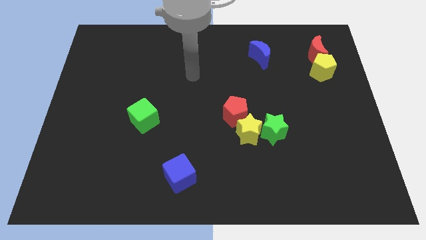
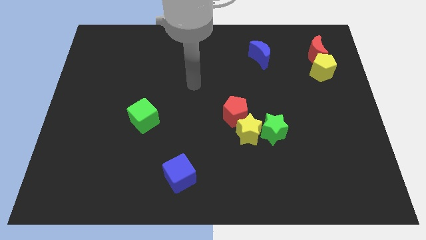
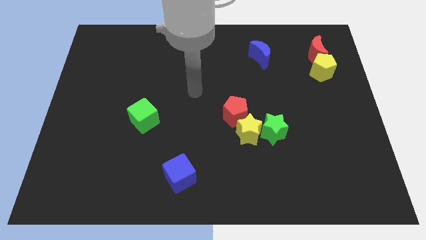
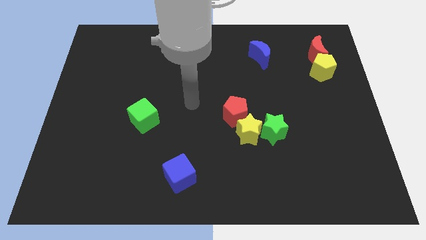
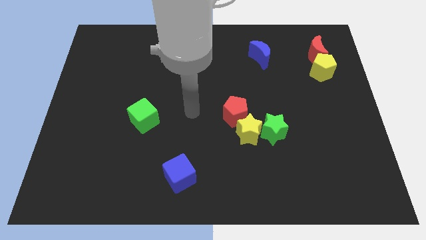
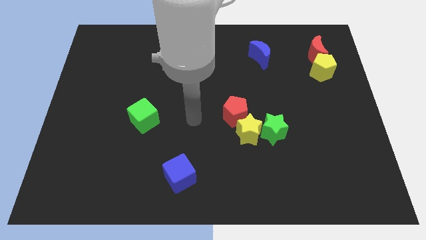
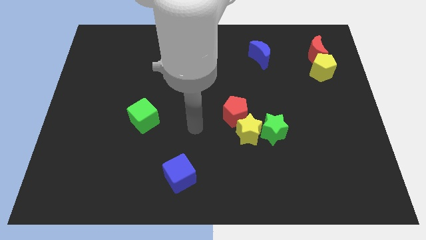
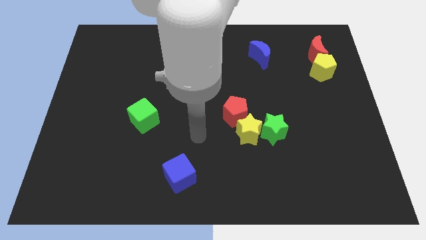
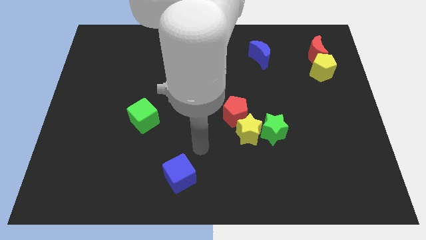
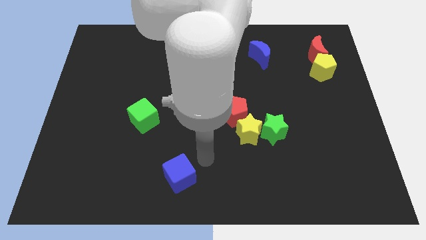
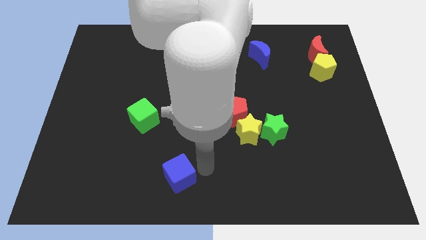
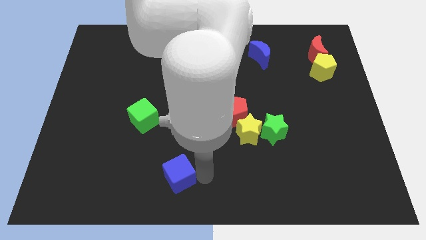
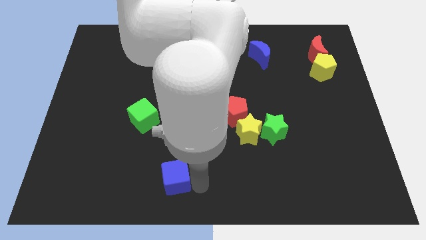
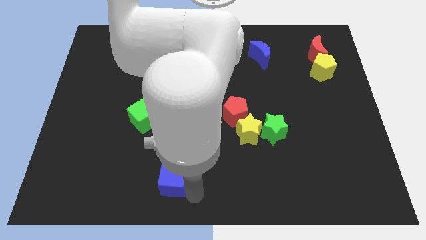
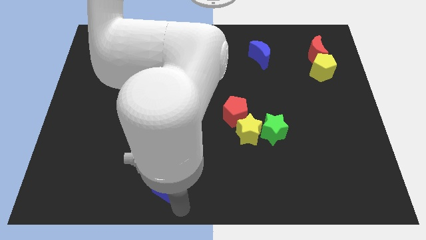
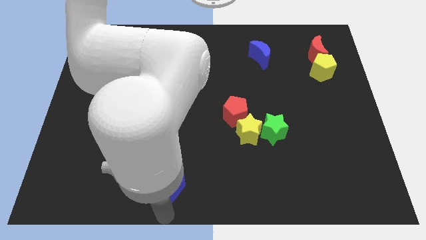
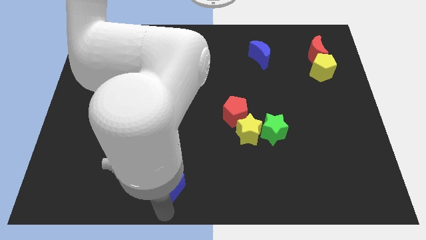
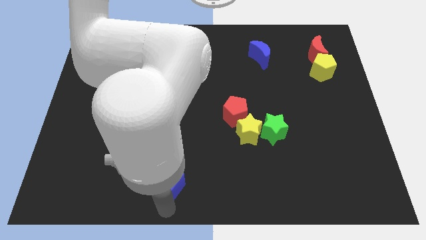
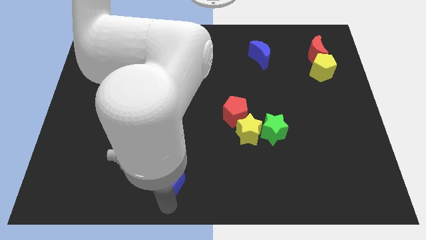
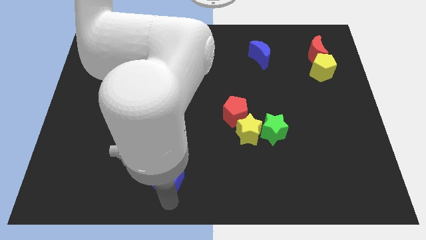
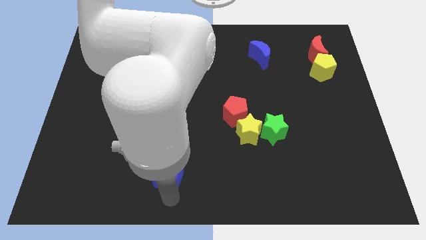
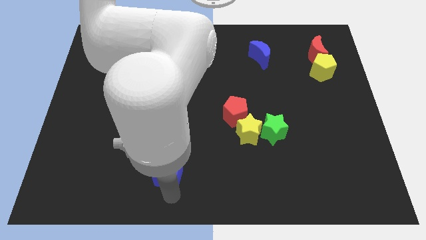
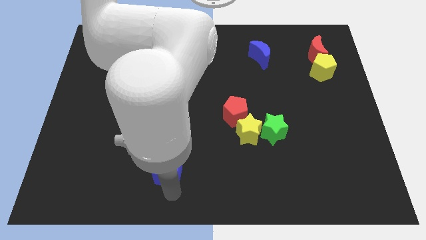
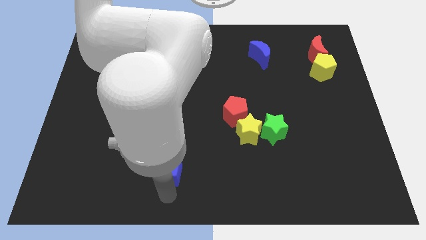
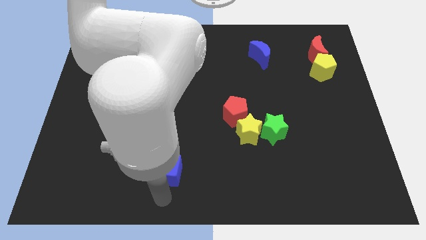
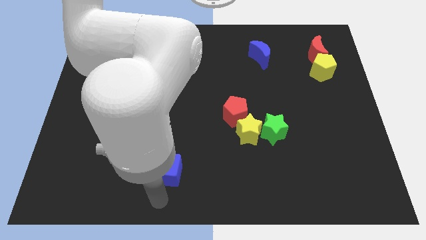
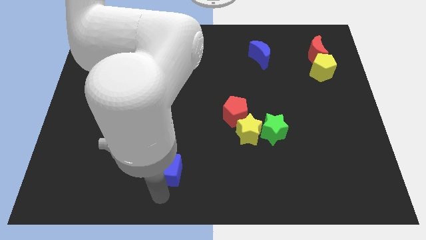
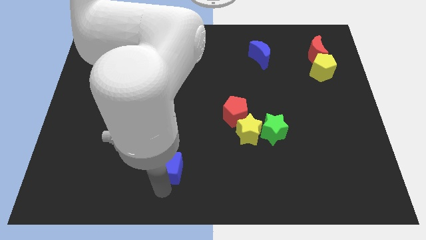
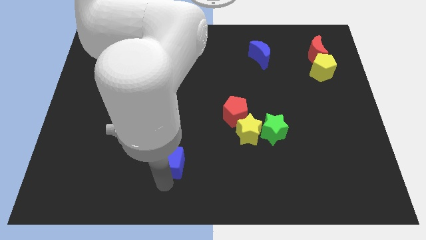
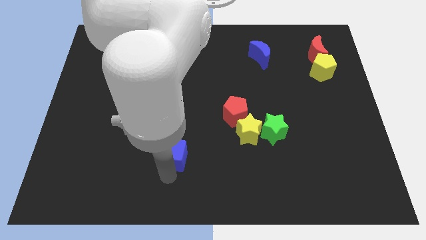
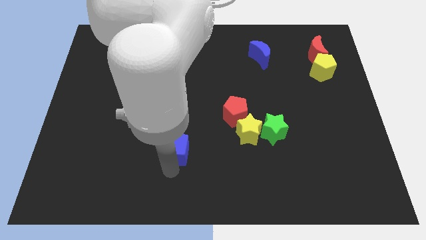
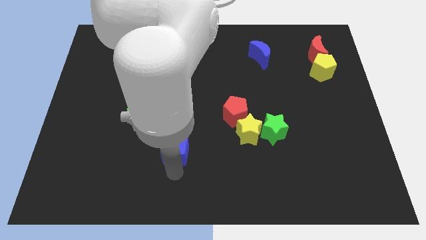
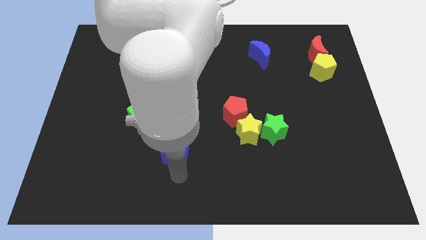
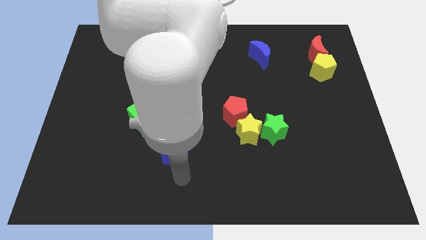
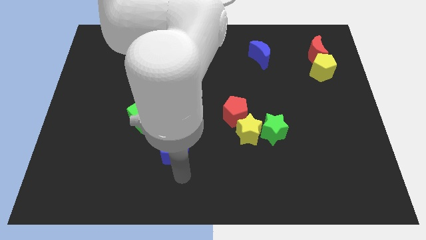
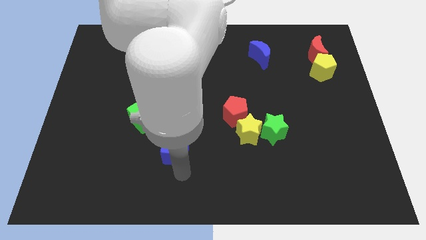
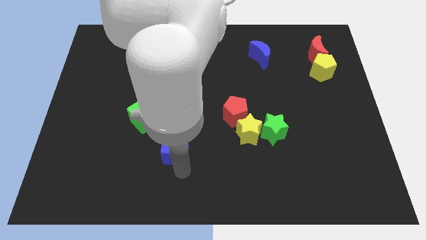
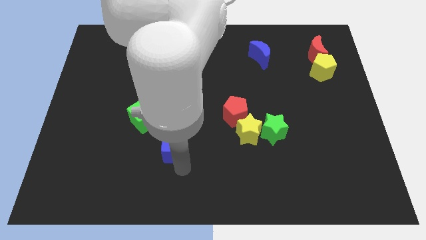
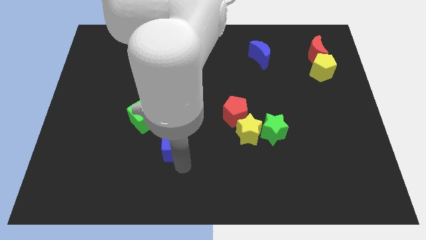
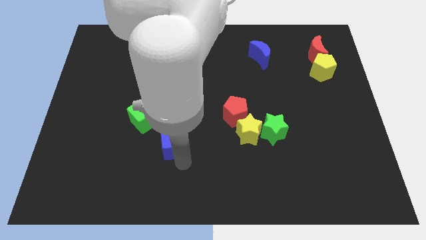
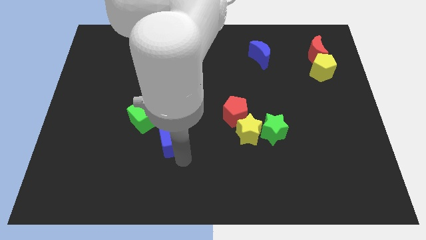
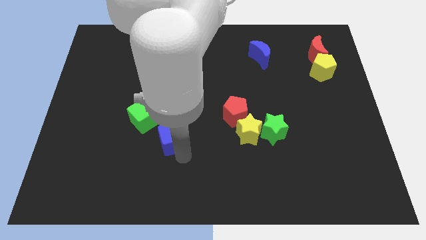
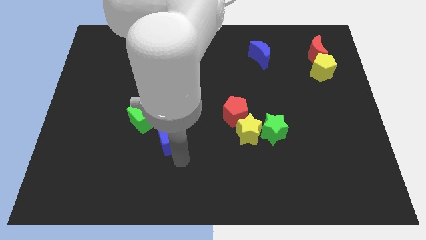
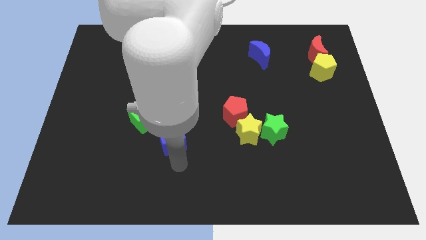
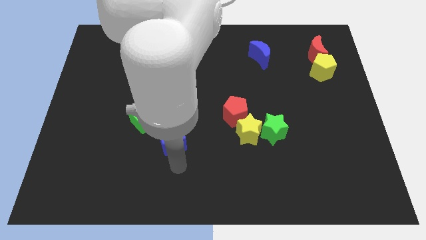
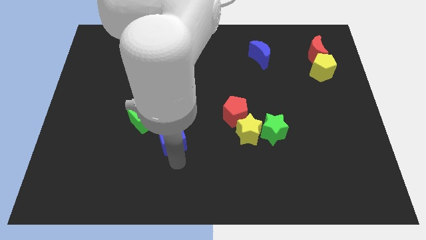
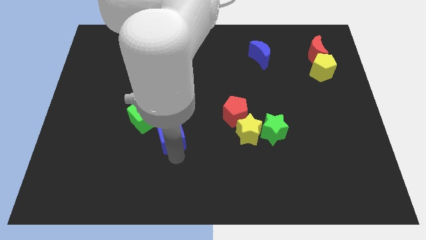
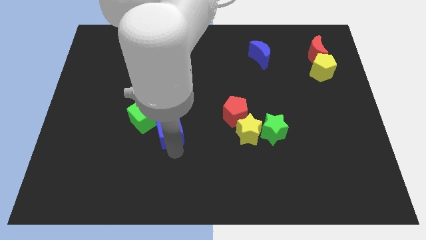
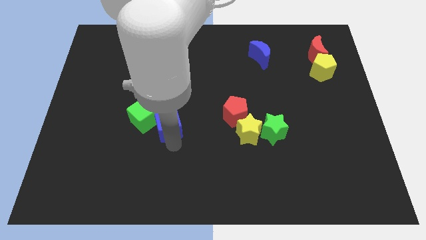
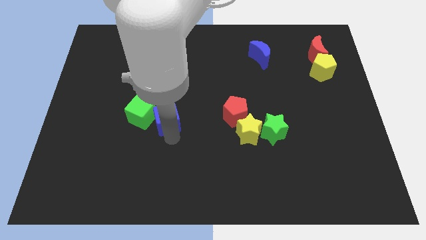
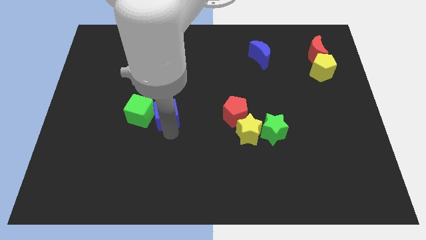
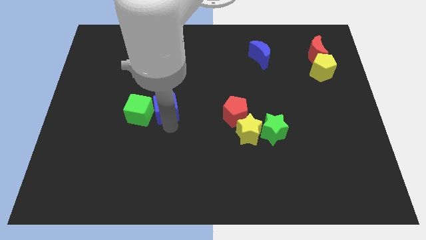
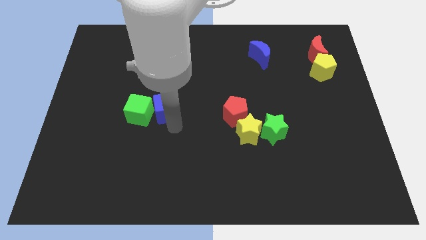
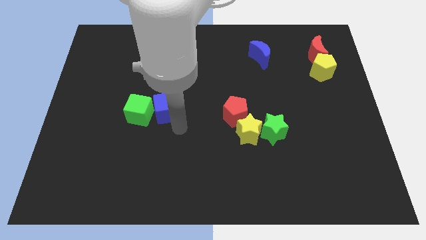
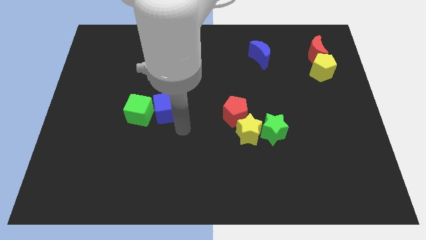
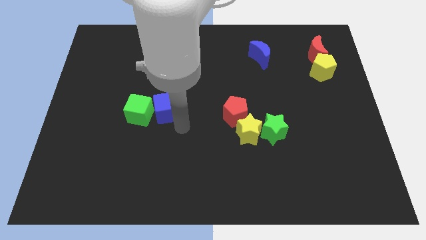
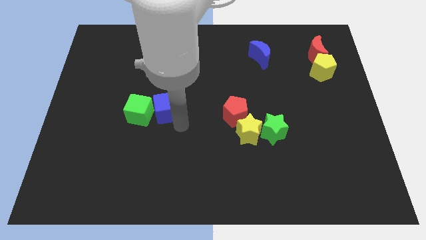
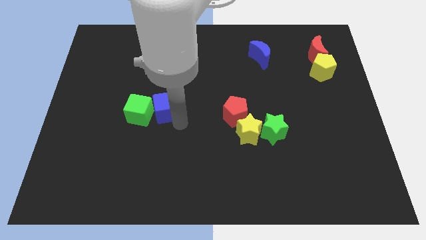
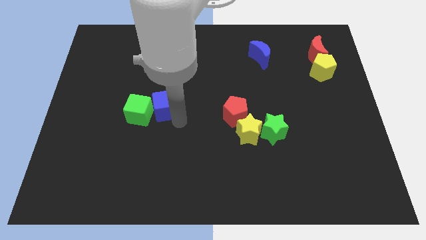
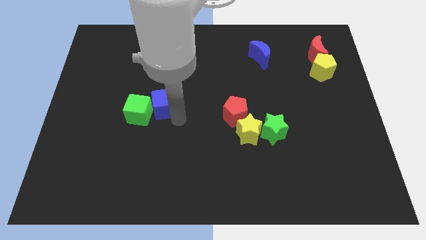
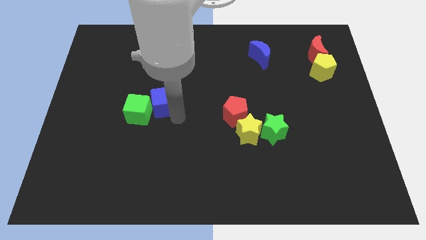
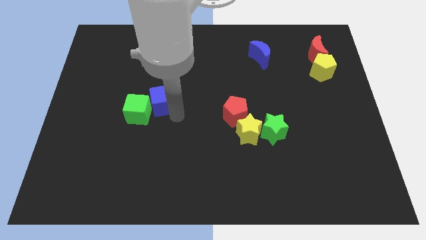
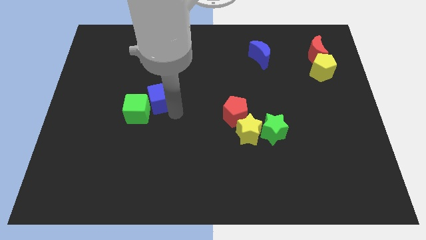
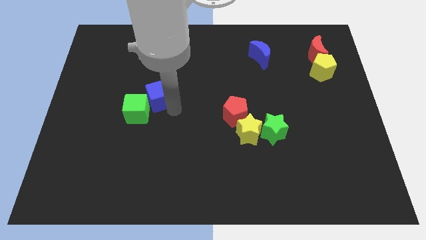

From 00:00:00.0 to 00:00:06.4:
push the blue cube to the top side of the green cube
